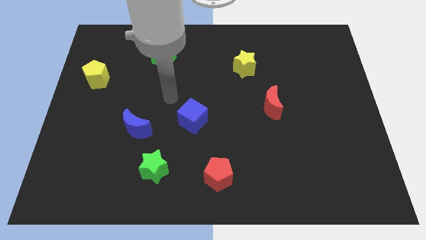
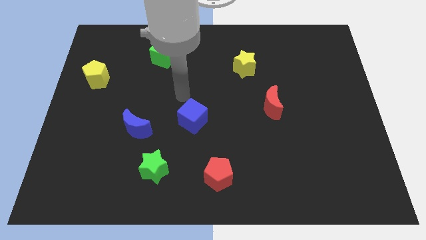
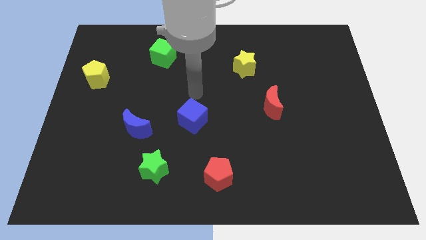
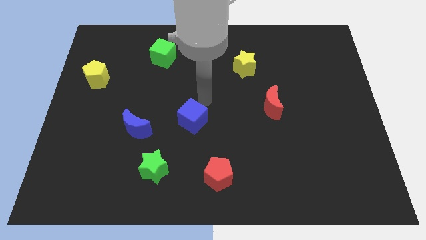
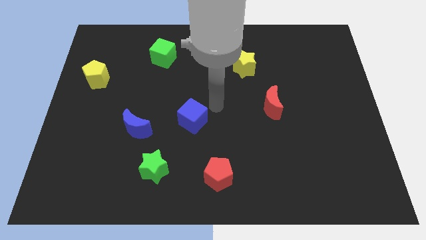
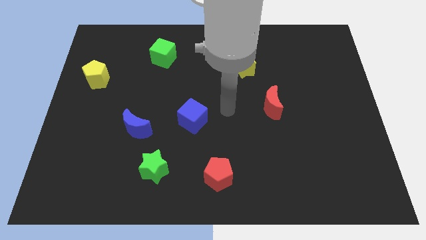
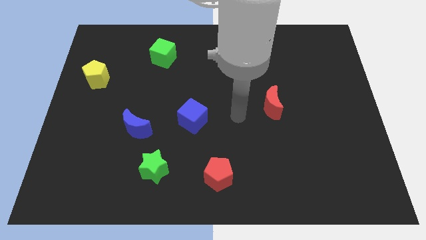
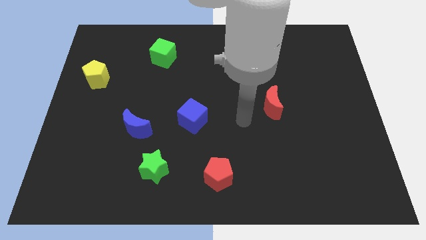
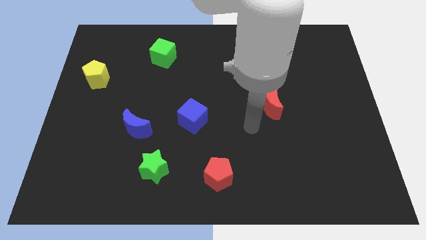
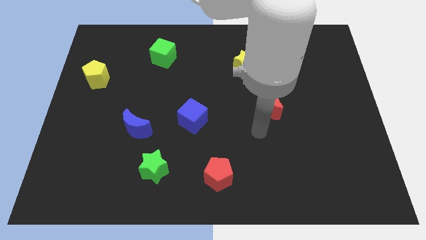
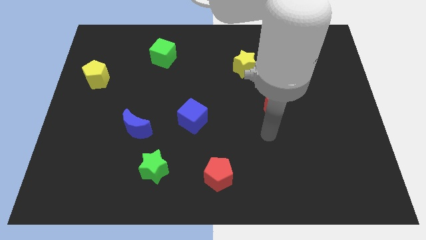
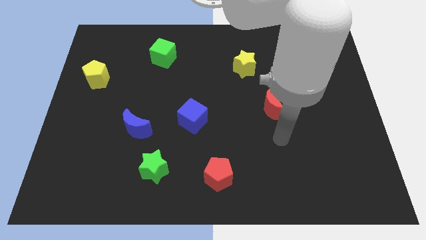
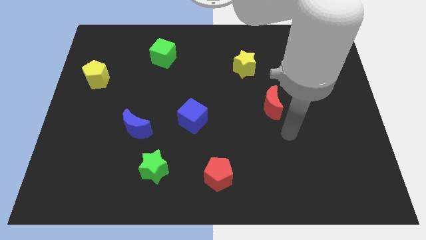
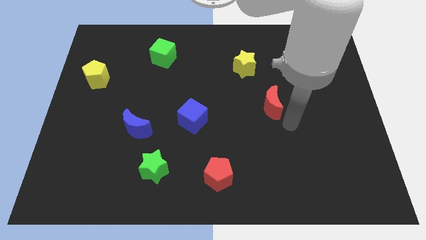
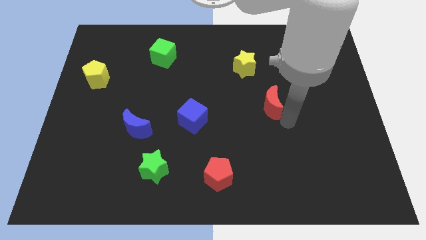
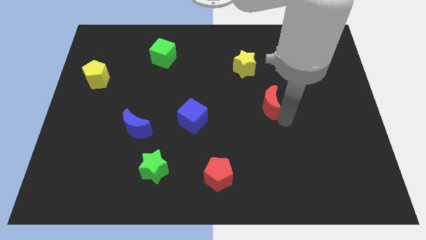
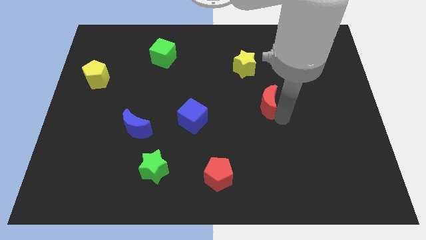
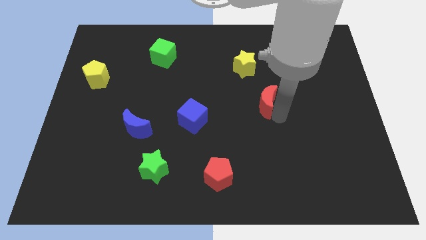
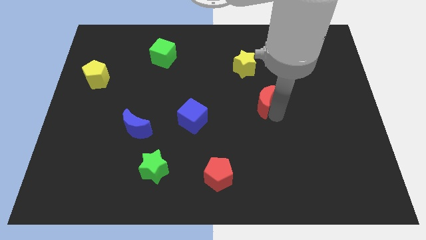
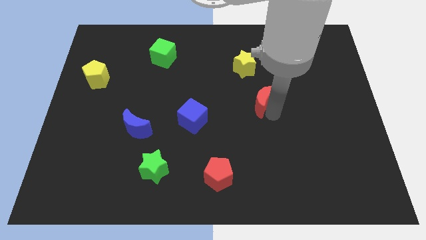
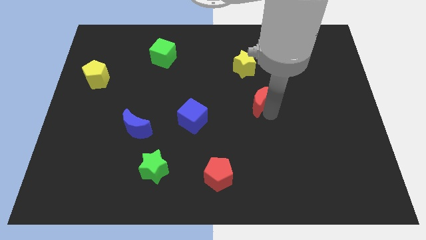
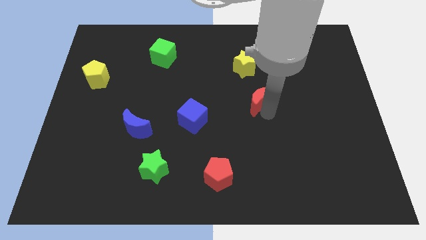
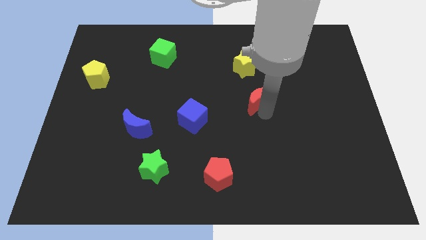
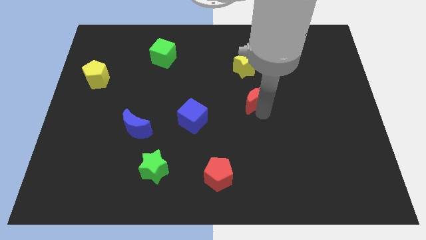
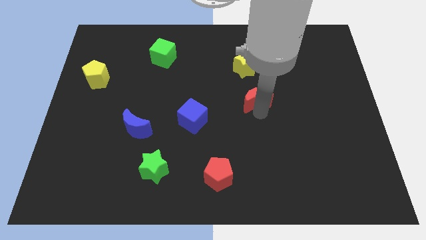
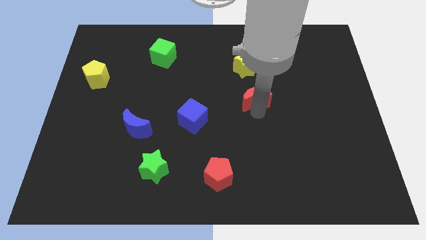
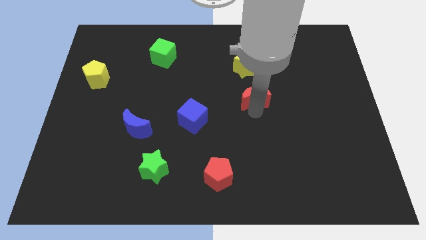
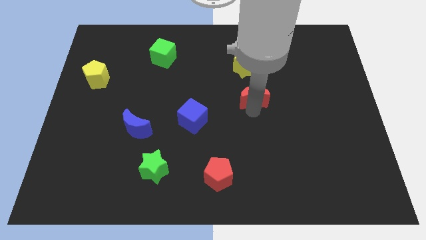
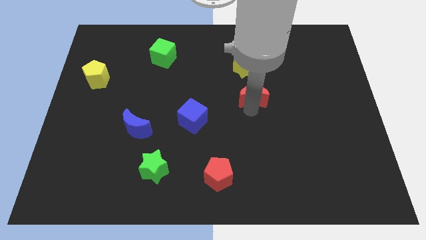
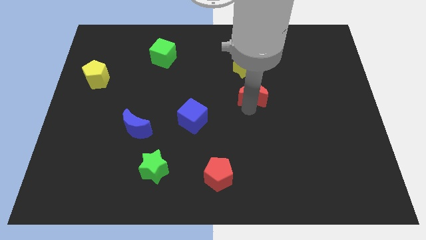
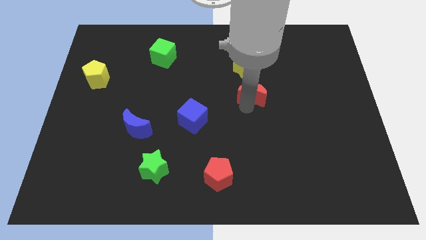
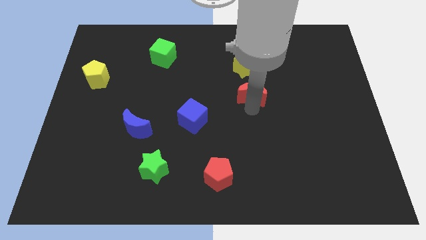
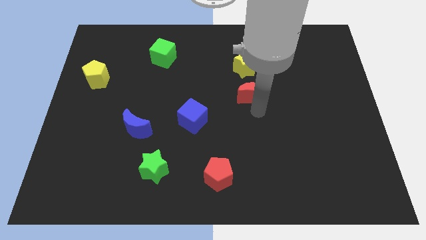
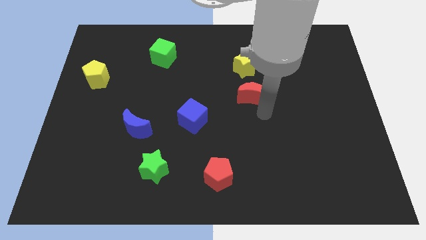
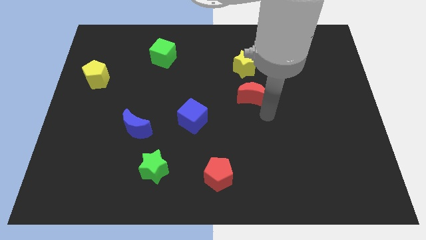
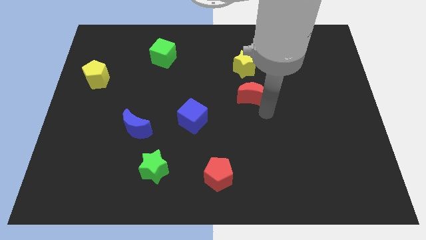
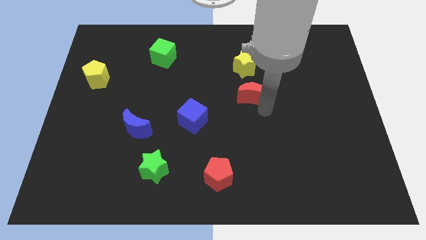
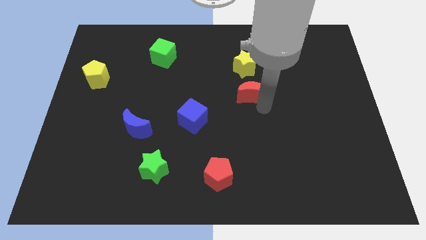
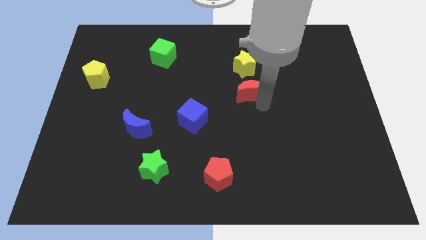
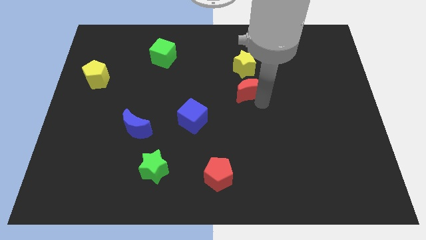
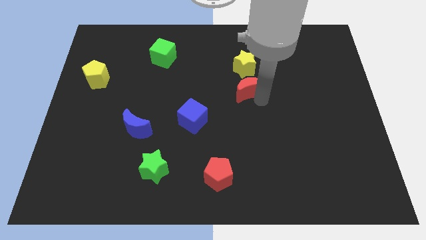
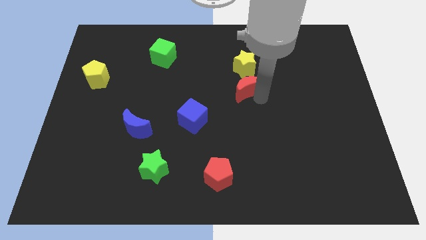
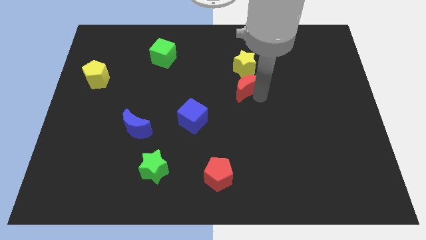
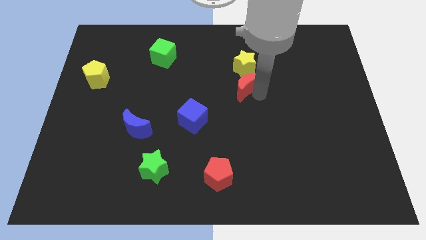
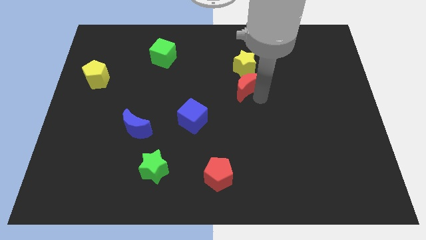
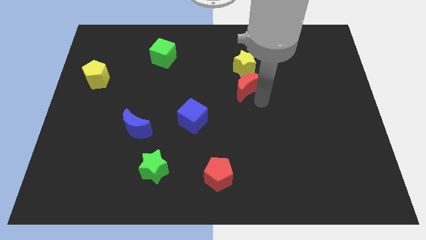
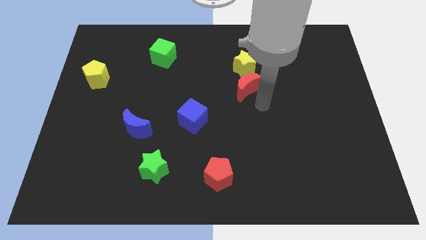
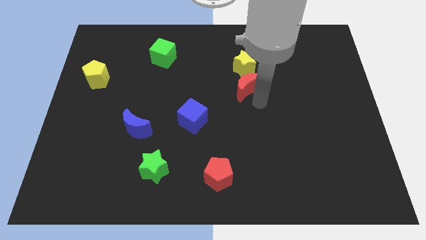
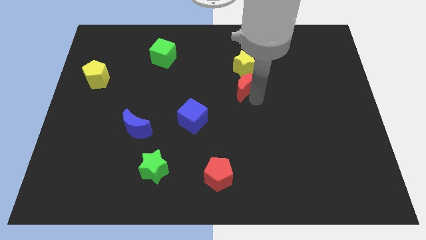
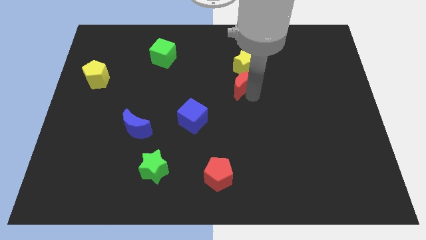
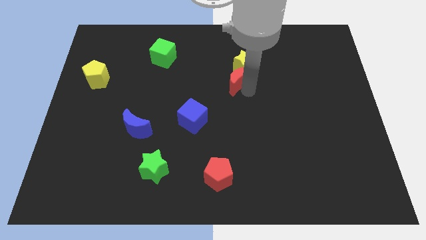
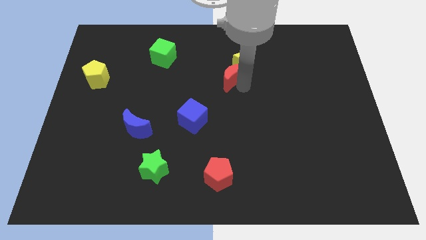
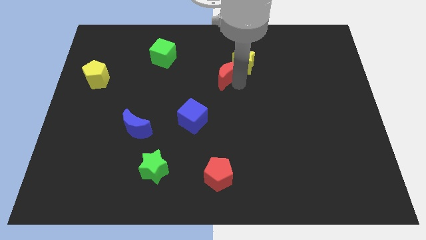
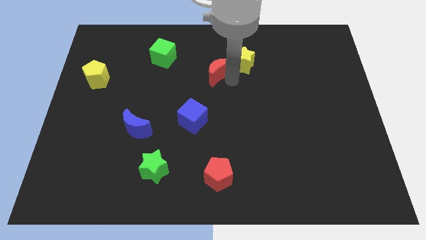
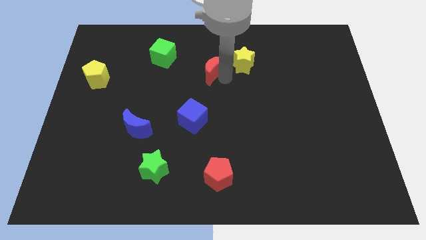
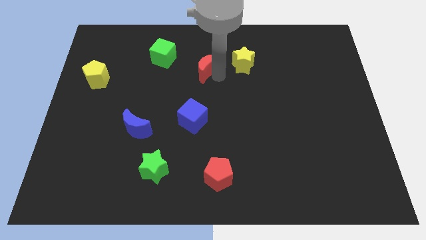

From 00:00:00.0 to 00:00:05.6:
slide the red moon to the right of the green cube

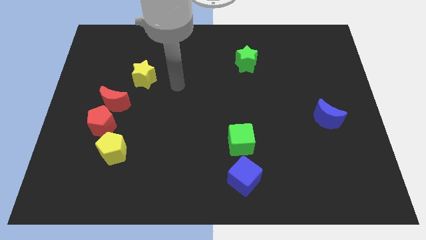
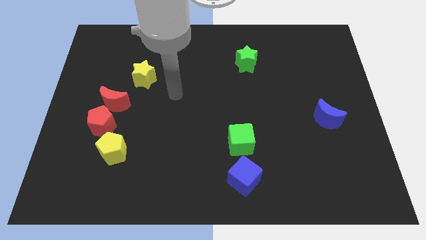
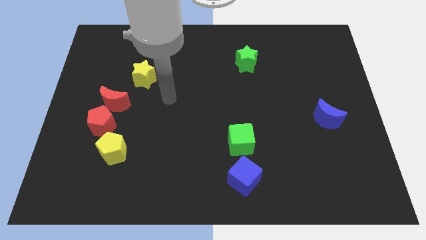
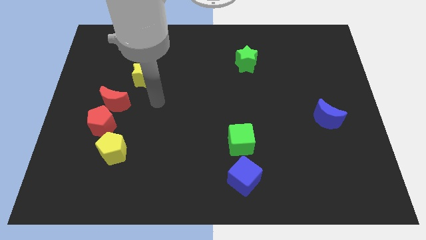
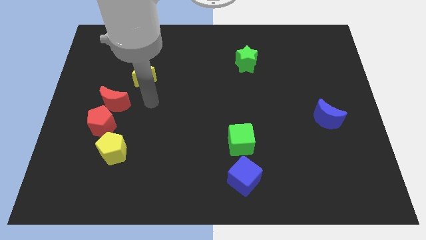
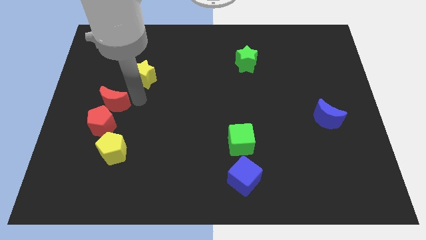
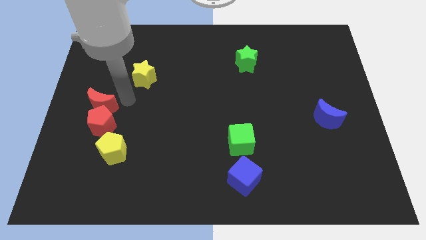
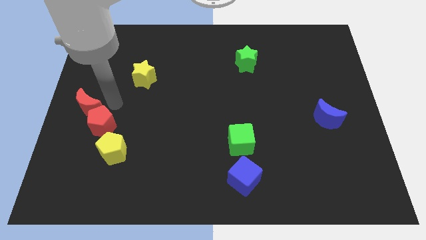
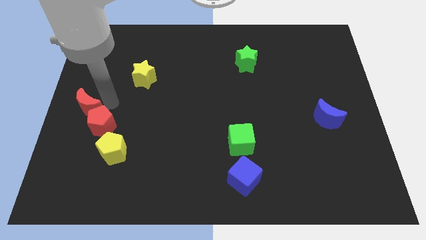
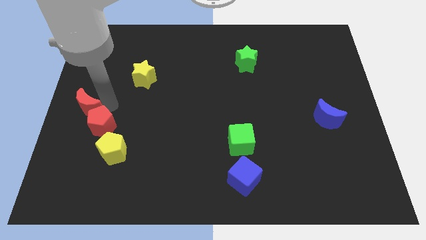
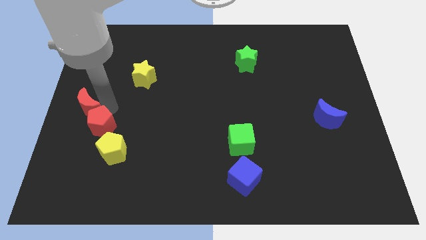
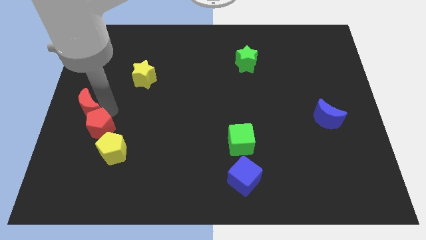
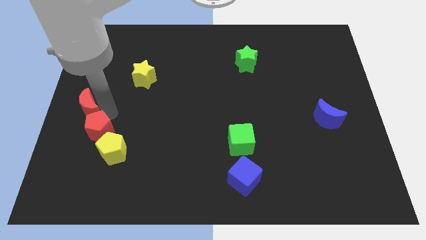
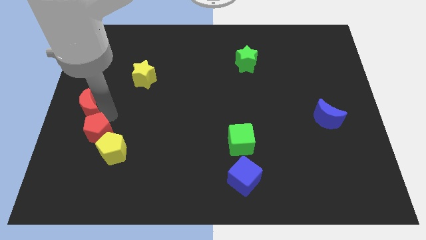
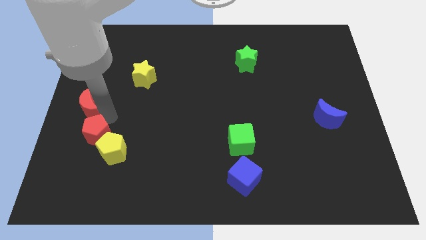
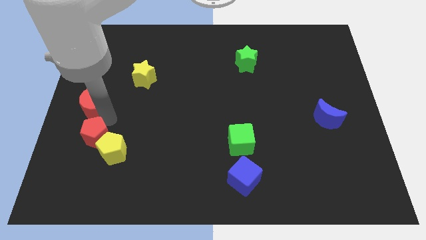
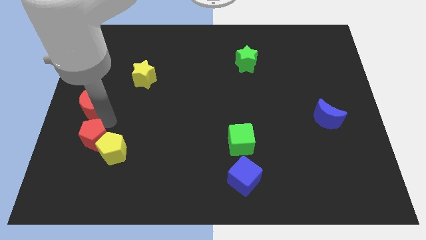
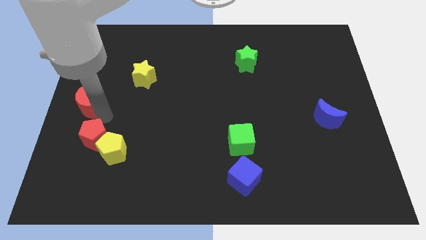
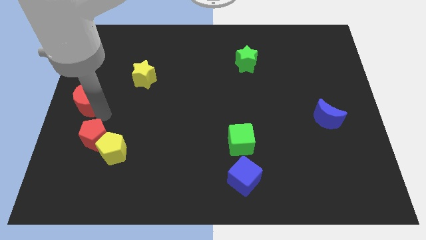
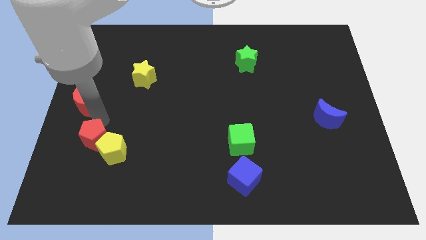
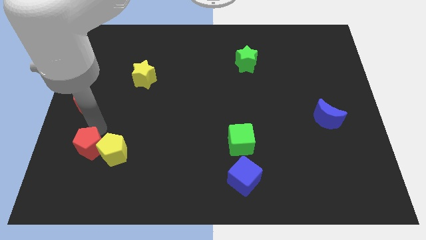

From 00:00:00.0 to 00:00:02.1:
push the red pentagon to the bottom left of the yellow pentagon
